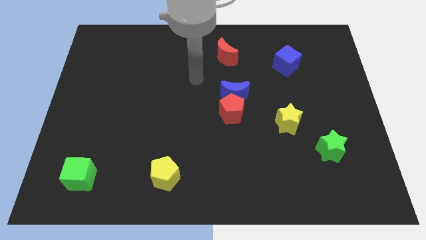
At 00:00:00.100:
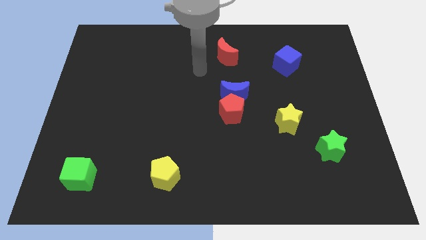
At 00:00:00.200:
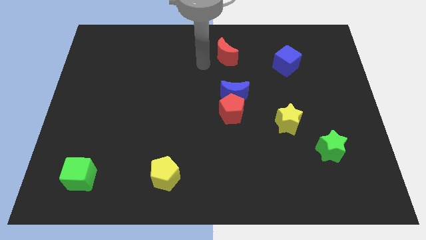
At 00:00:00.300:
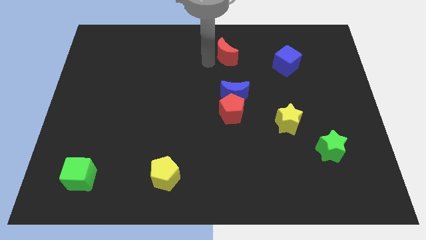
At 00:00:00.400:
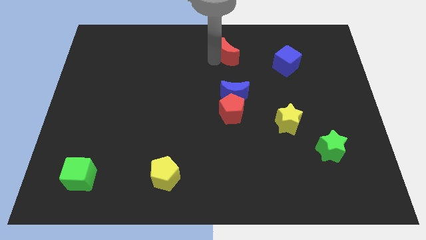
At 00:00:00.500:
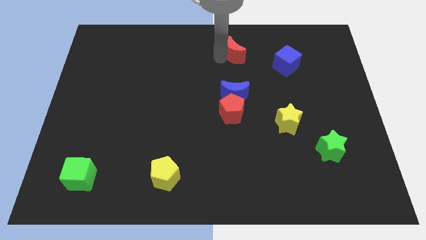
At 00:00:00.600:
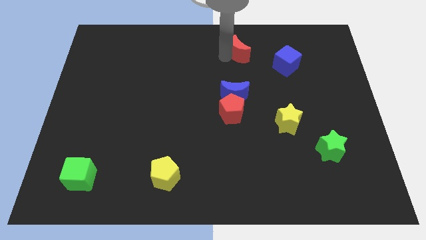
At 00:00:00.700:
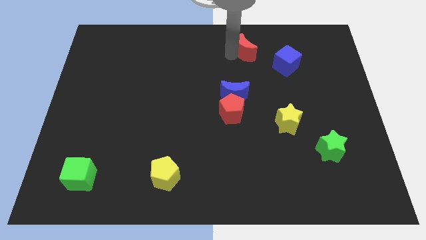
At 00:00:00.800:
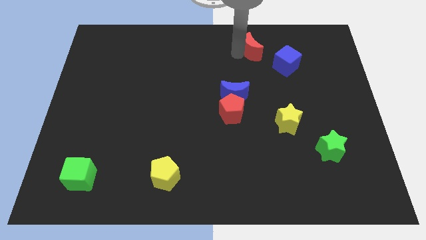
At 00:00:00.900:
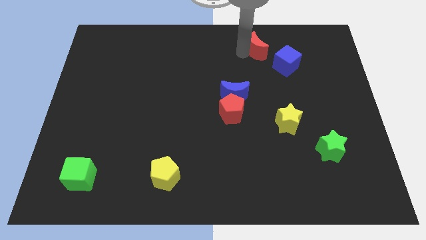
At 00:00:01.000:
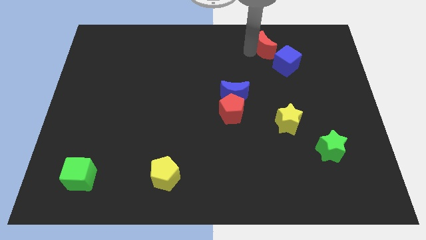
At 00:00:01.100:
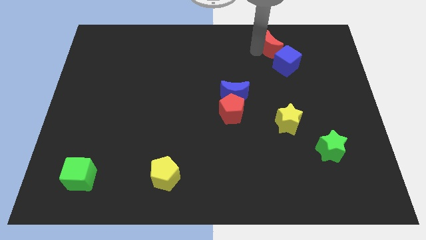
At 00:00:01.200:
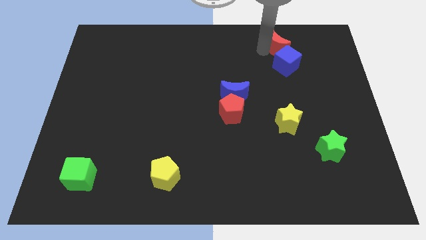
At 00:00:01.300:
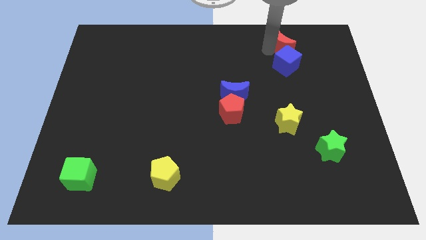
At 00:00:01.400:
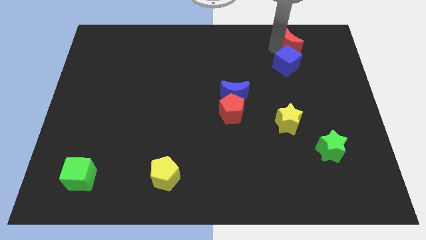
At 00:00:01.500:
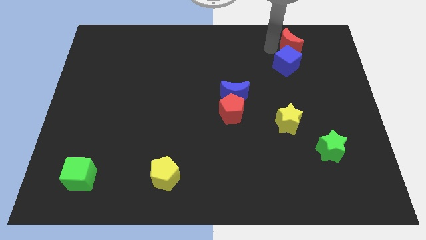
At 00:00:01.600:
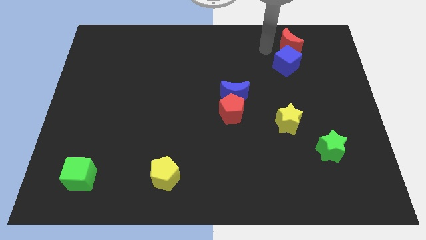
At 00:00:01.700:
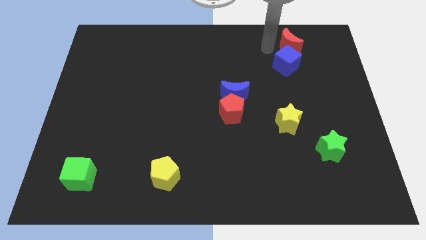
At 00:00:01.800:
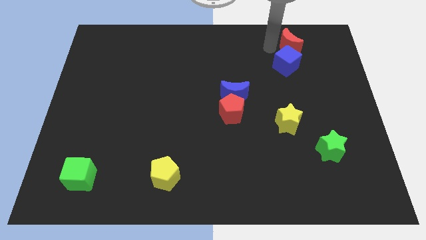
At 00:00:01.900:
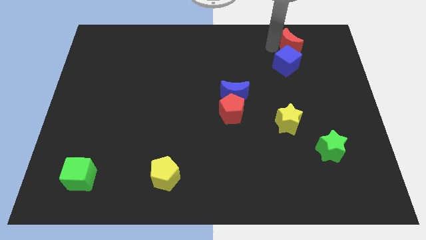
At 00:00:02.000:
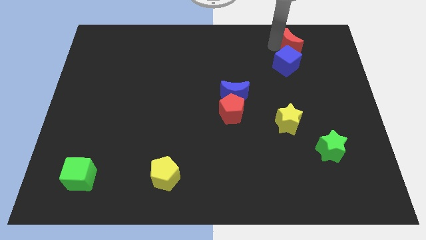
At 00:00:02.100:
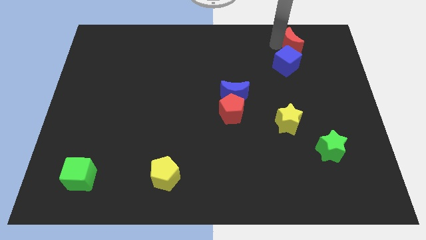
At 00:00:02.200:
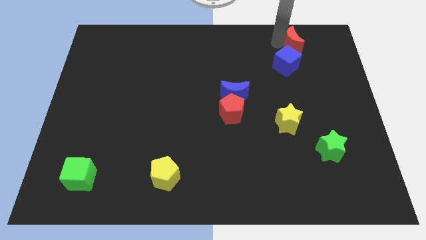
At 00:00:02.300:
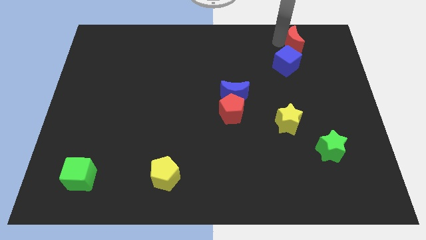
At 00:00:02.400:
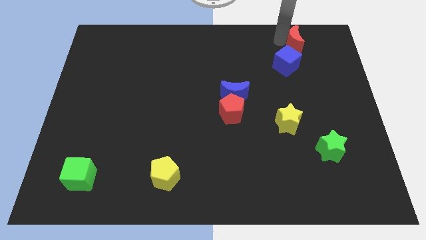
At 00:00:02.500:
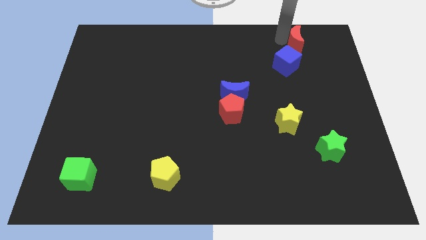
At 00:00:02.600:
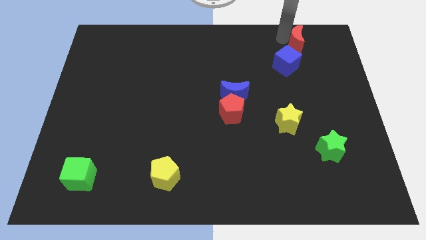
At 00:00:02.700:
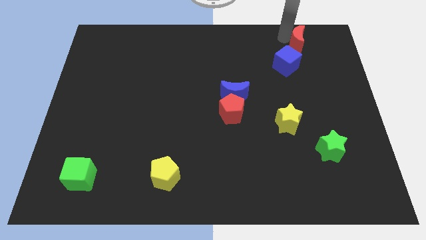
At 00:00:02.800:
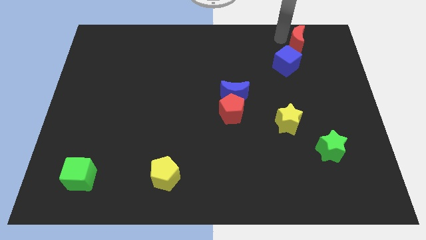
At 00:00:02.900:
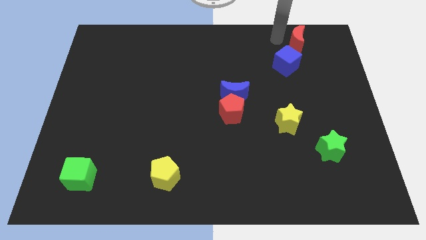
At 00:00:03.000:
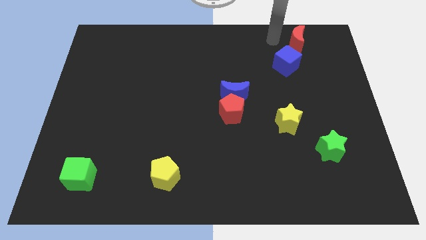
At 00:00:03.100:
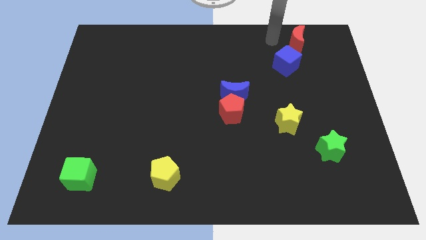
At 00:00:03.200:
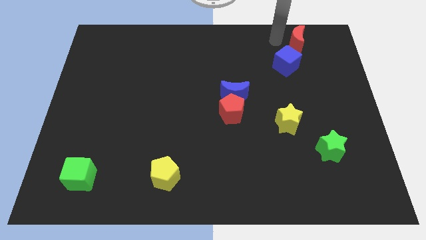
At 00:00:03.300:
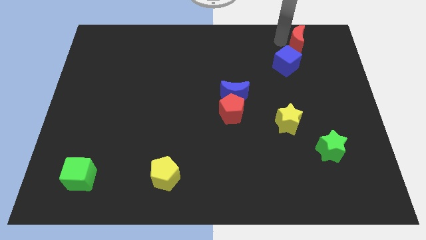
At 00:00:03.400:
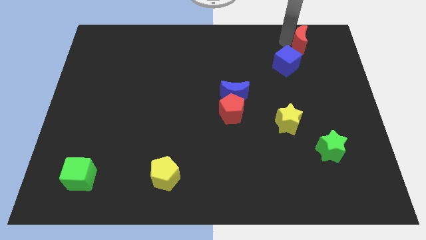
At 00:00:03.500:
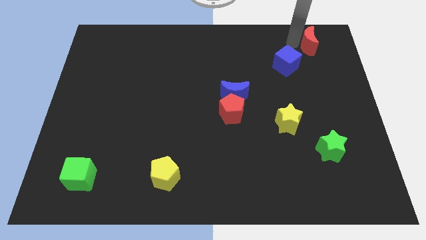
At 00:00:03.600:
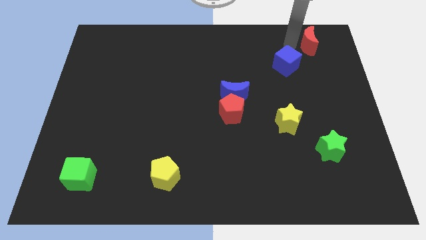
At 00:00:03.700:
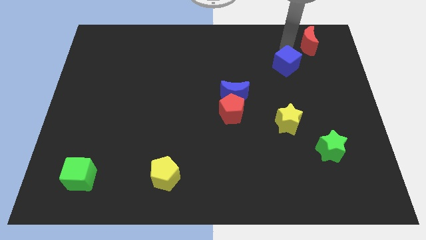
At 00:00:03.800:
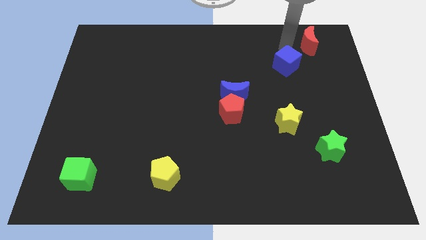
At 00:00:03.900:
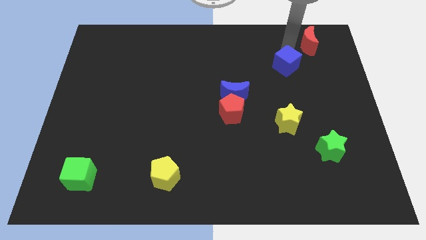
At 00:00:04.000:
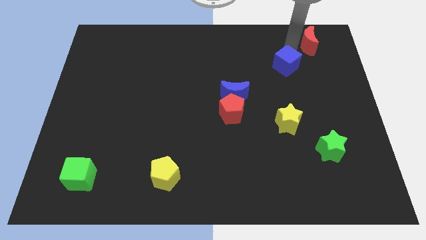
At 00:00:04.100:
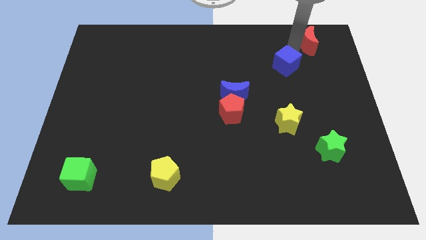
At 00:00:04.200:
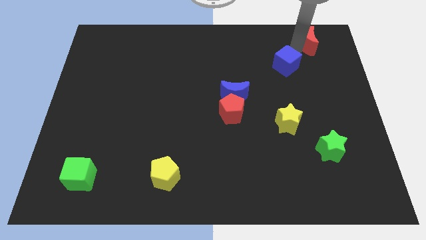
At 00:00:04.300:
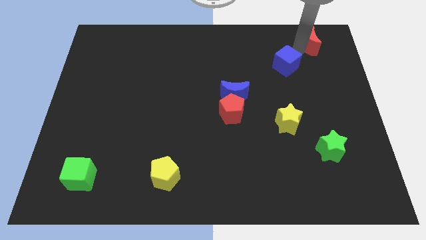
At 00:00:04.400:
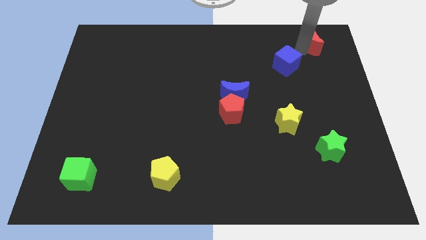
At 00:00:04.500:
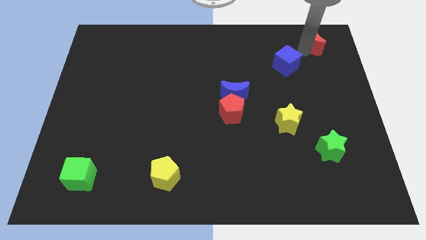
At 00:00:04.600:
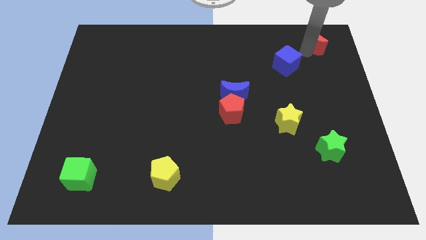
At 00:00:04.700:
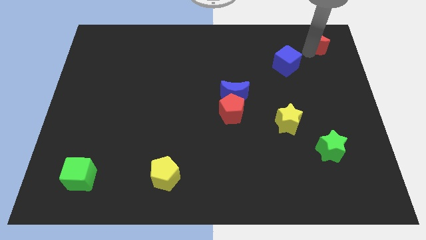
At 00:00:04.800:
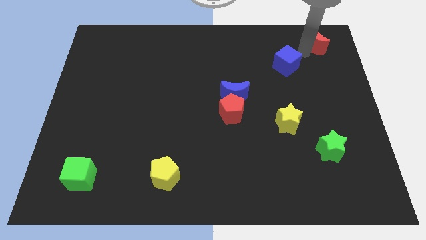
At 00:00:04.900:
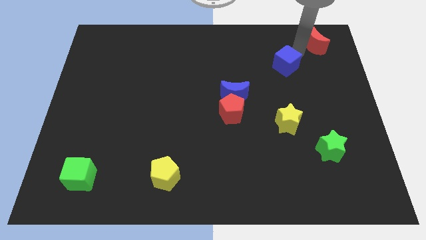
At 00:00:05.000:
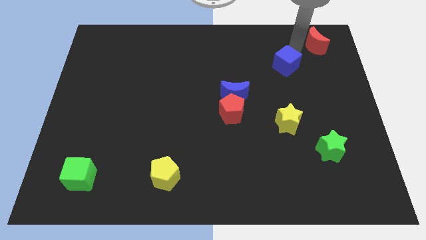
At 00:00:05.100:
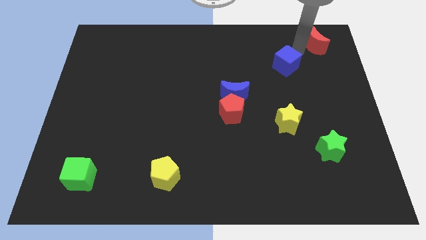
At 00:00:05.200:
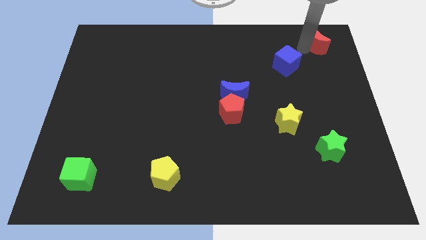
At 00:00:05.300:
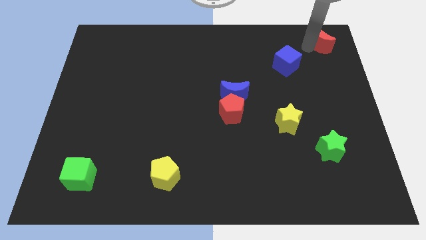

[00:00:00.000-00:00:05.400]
slide the red moon to the top right of the board

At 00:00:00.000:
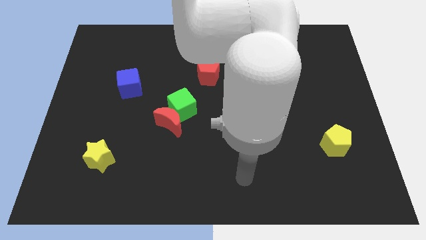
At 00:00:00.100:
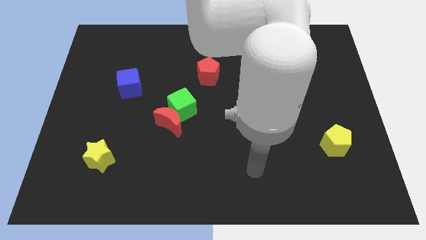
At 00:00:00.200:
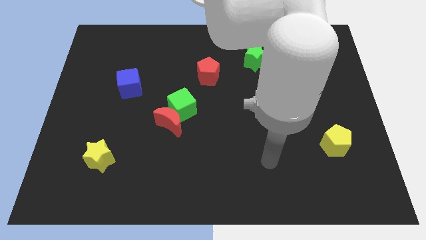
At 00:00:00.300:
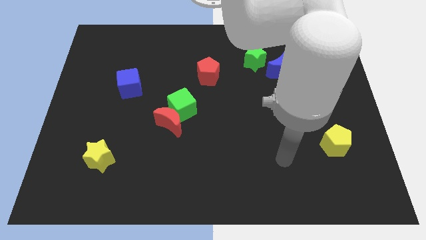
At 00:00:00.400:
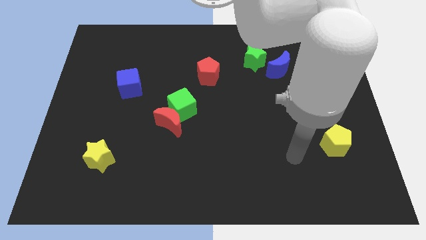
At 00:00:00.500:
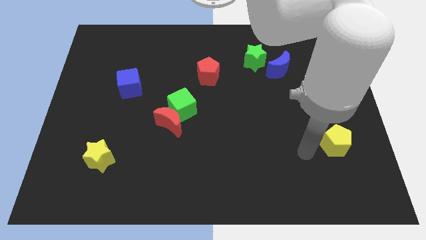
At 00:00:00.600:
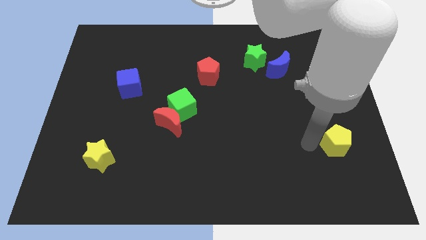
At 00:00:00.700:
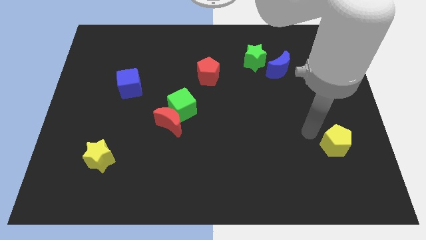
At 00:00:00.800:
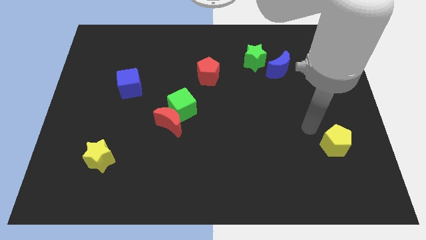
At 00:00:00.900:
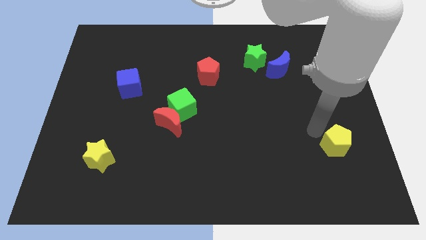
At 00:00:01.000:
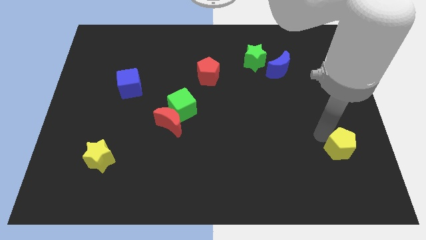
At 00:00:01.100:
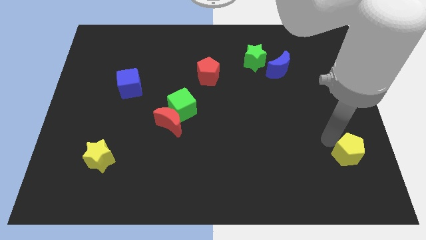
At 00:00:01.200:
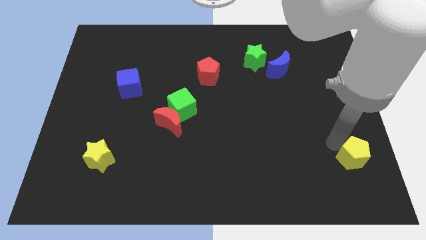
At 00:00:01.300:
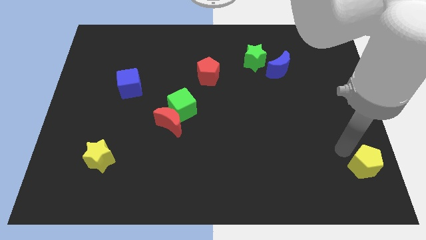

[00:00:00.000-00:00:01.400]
slide the yellow pentagon to the lower right corner

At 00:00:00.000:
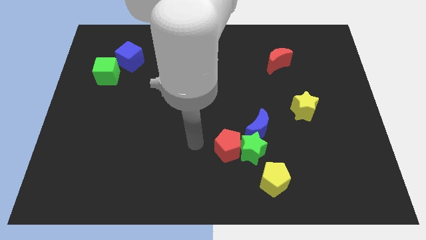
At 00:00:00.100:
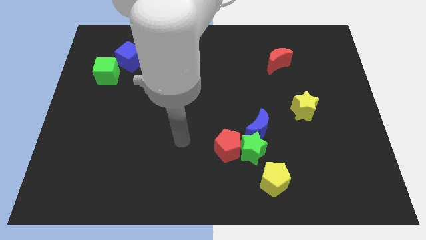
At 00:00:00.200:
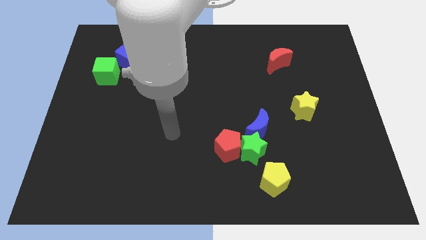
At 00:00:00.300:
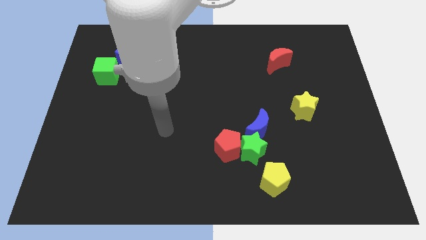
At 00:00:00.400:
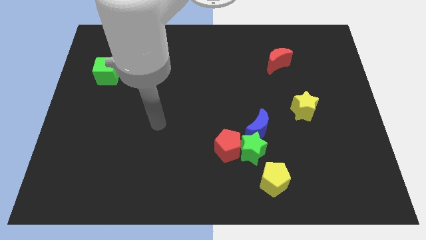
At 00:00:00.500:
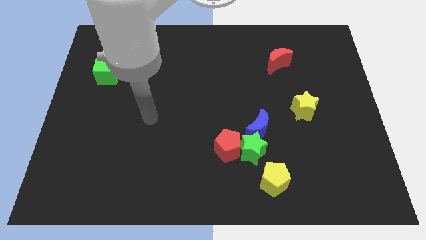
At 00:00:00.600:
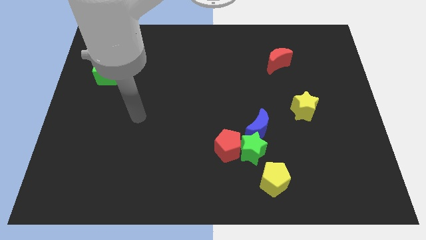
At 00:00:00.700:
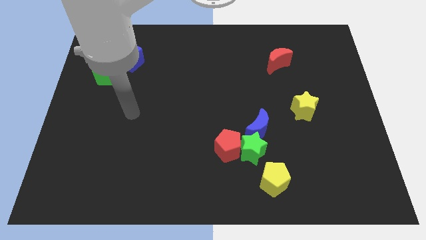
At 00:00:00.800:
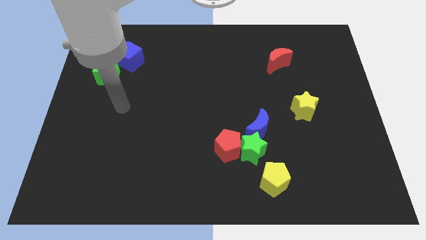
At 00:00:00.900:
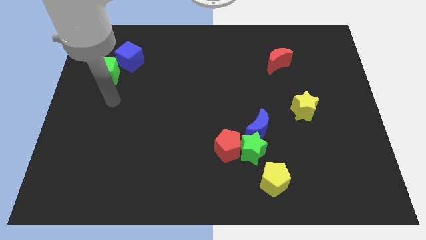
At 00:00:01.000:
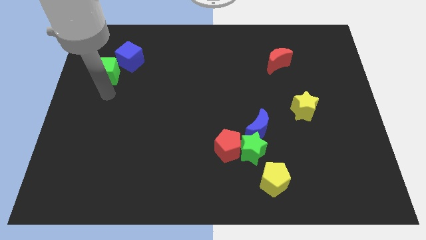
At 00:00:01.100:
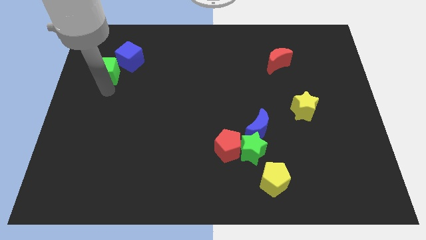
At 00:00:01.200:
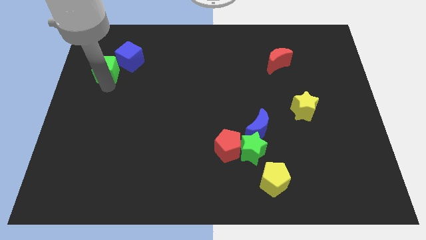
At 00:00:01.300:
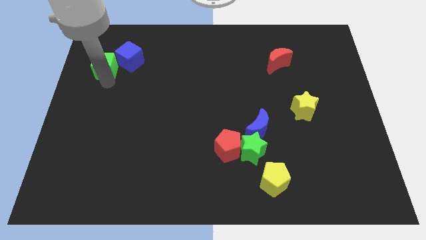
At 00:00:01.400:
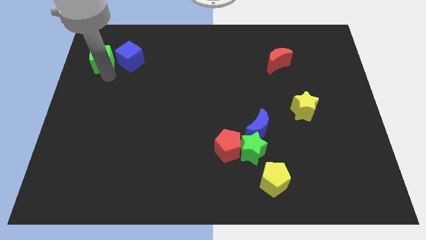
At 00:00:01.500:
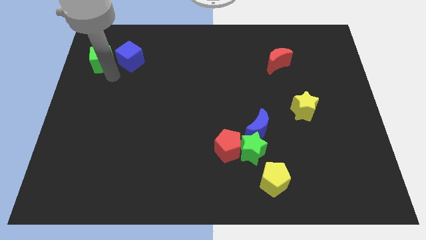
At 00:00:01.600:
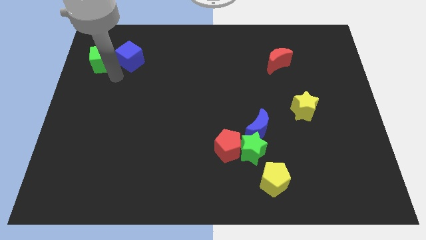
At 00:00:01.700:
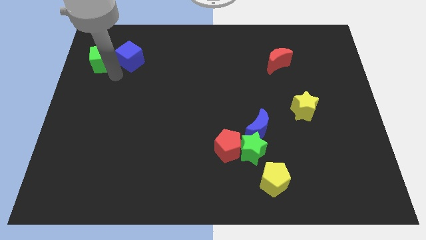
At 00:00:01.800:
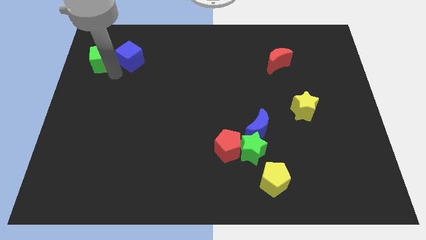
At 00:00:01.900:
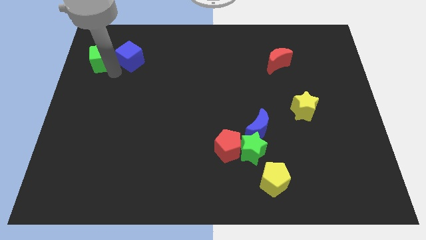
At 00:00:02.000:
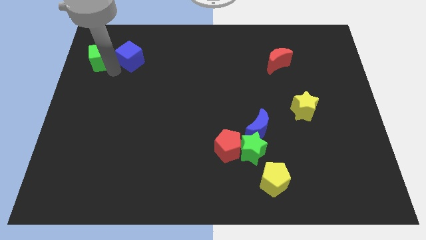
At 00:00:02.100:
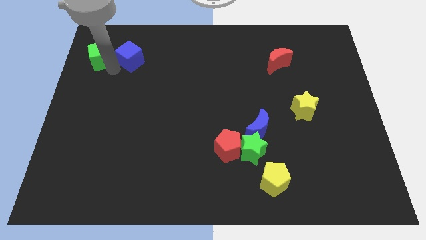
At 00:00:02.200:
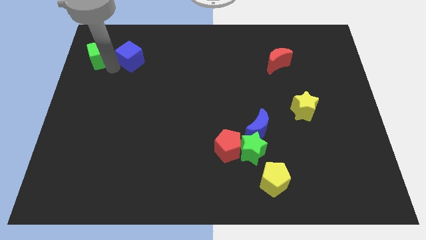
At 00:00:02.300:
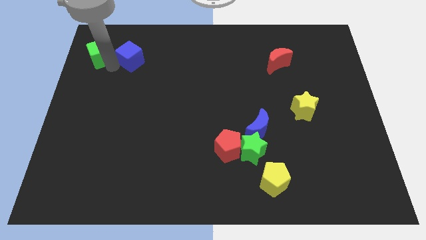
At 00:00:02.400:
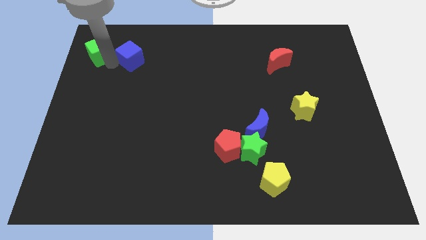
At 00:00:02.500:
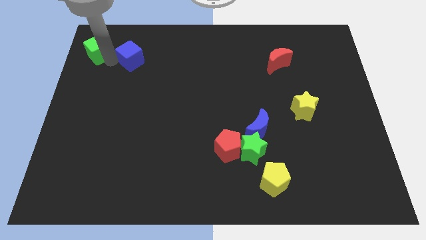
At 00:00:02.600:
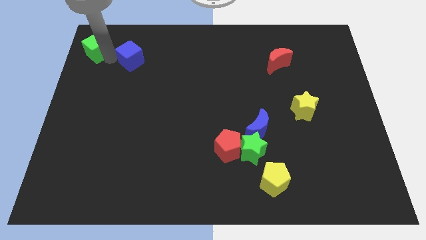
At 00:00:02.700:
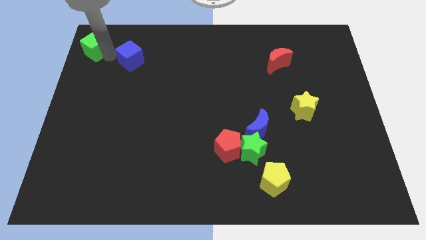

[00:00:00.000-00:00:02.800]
push the green cube to the top left of the board
